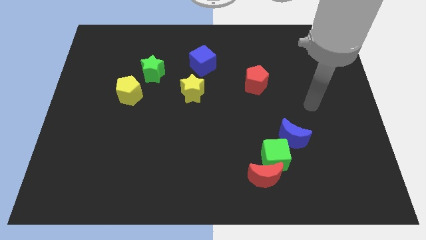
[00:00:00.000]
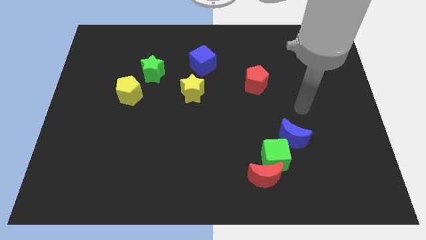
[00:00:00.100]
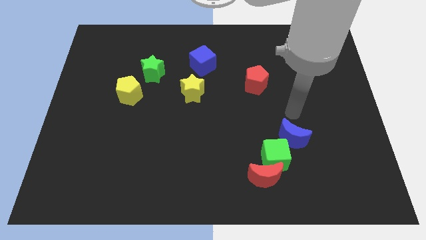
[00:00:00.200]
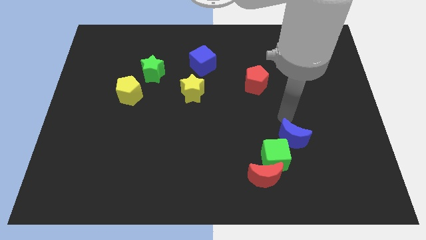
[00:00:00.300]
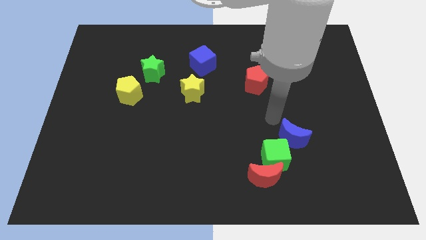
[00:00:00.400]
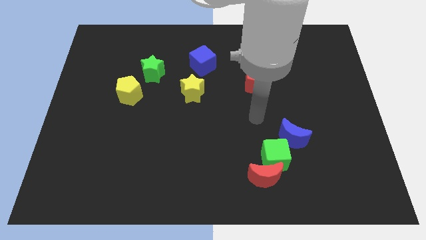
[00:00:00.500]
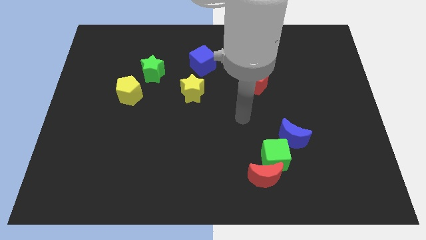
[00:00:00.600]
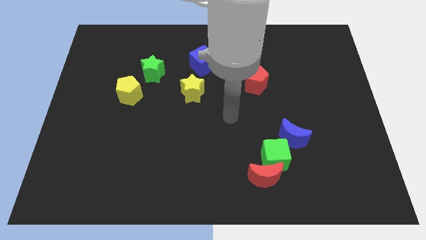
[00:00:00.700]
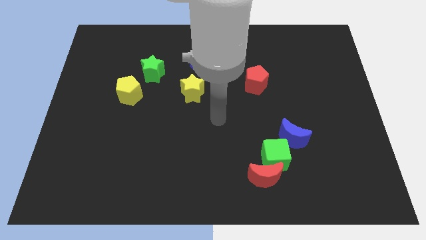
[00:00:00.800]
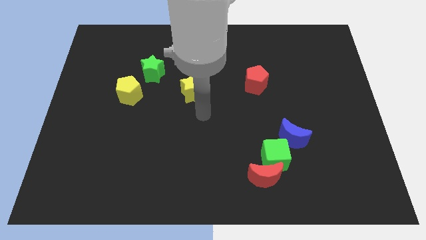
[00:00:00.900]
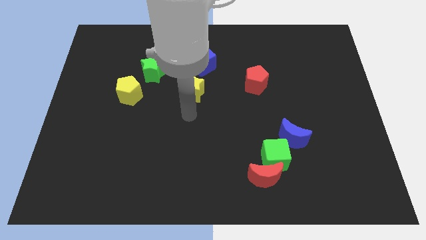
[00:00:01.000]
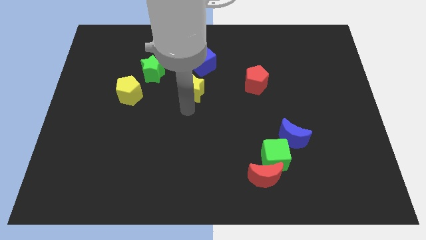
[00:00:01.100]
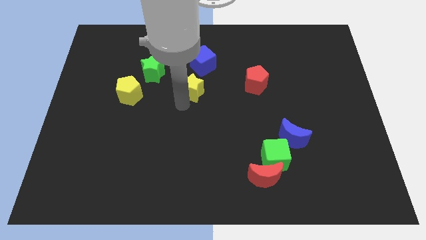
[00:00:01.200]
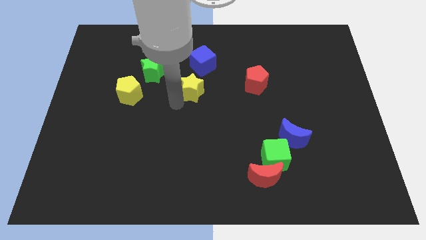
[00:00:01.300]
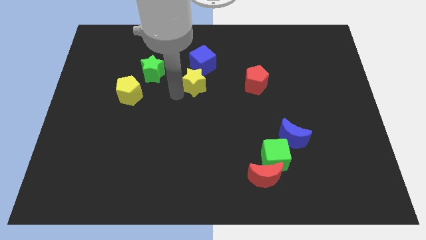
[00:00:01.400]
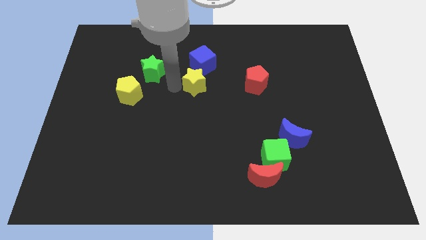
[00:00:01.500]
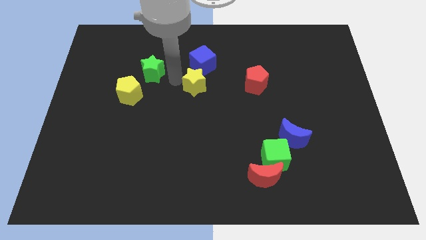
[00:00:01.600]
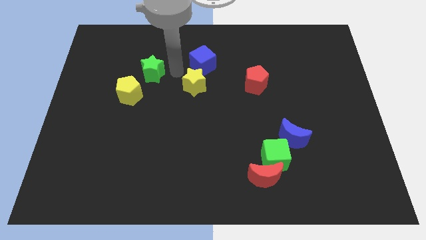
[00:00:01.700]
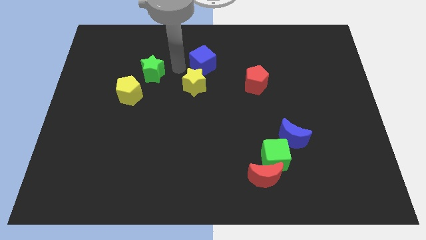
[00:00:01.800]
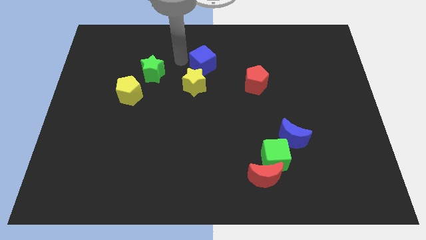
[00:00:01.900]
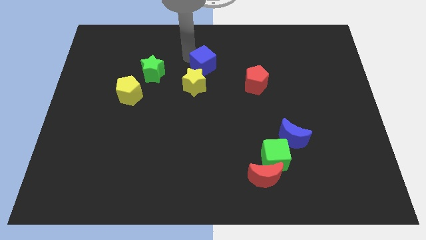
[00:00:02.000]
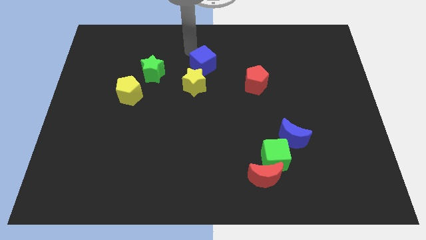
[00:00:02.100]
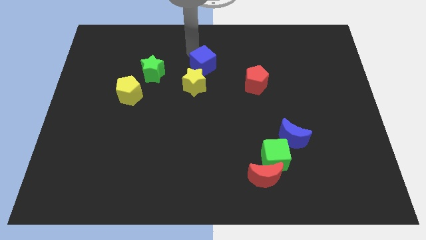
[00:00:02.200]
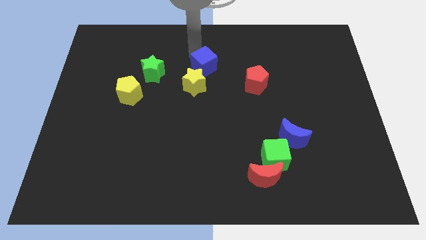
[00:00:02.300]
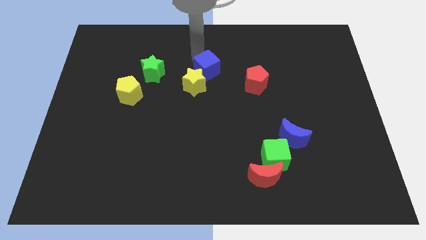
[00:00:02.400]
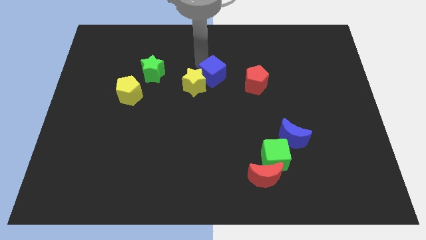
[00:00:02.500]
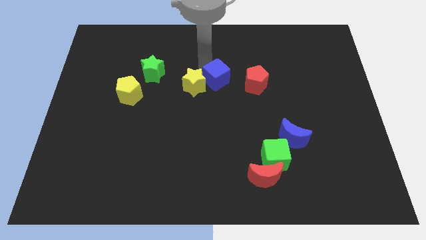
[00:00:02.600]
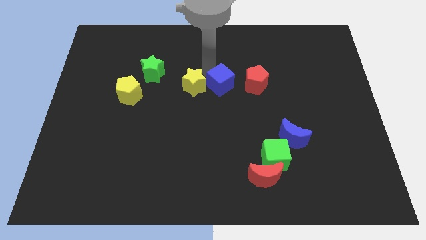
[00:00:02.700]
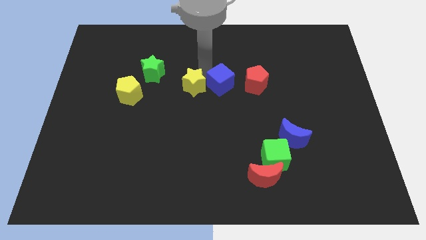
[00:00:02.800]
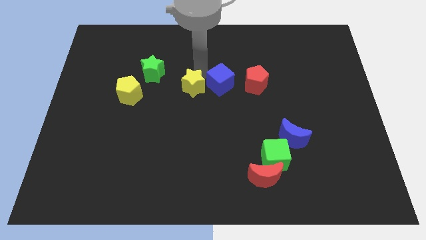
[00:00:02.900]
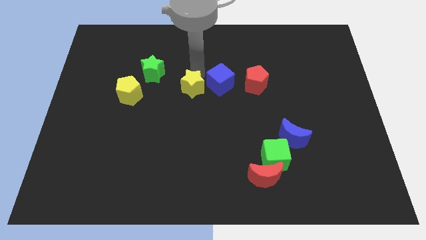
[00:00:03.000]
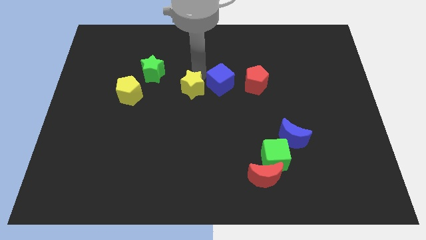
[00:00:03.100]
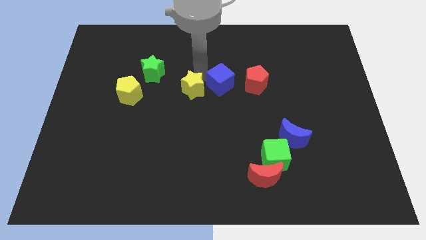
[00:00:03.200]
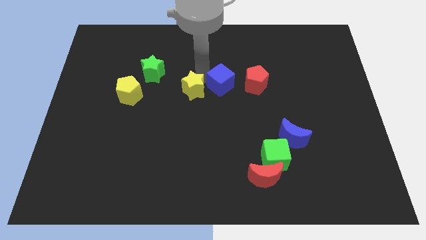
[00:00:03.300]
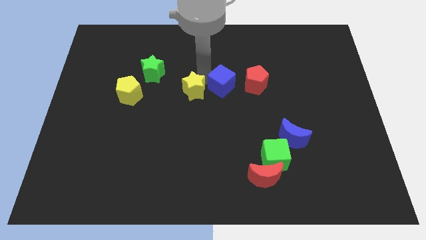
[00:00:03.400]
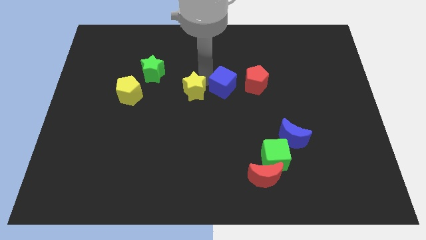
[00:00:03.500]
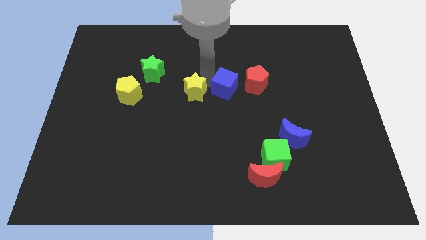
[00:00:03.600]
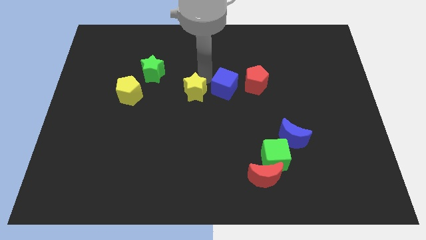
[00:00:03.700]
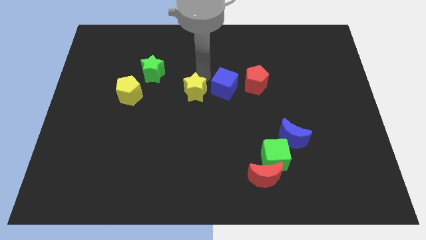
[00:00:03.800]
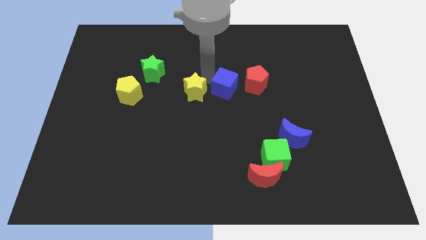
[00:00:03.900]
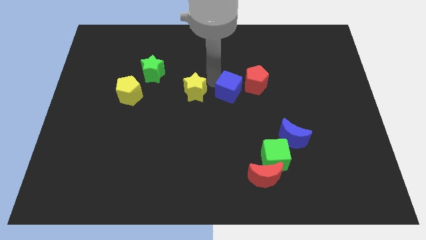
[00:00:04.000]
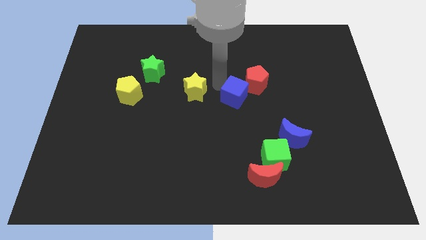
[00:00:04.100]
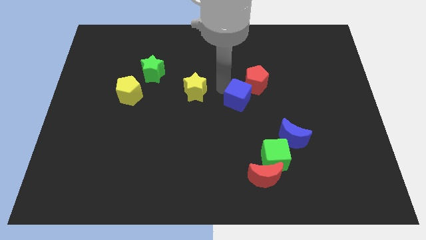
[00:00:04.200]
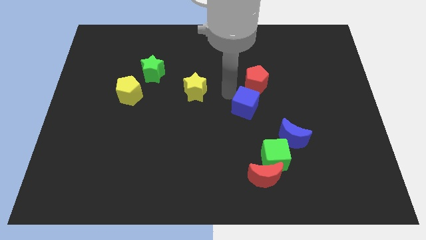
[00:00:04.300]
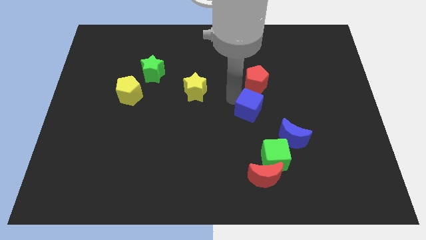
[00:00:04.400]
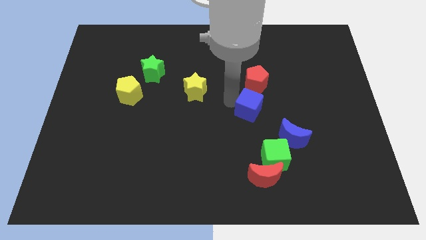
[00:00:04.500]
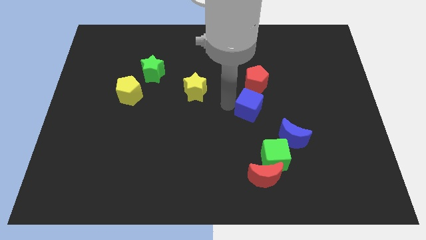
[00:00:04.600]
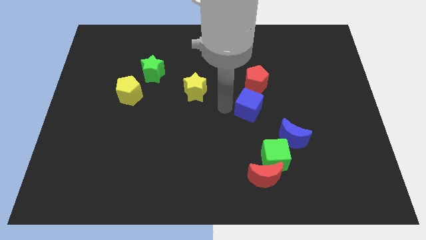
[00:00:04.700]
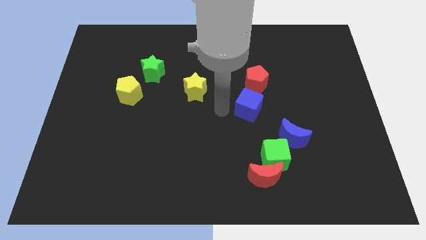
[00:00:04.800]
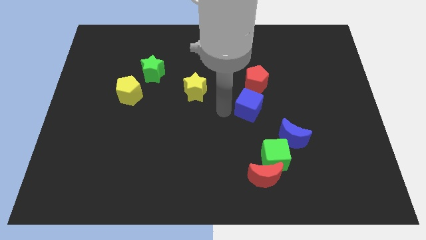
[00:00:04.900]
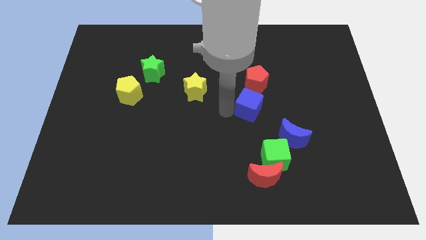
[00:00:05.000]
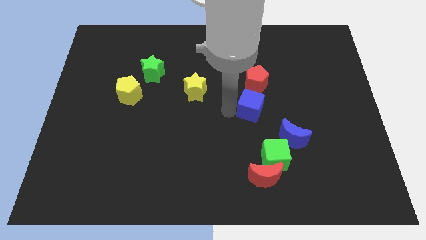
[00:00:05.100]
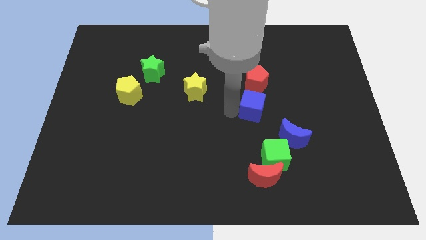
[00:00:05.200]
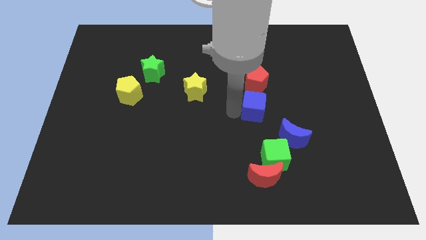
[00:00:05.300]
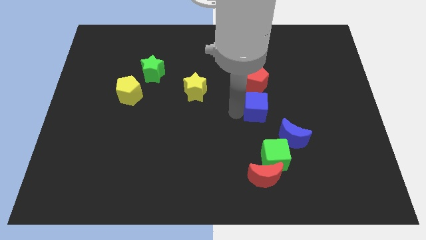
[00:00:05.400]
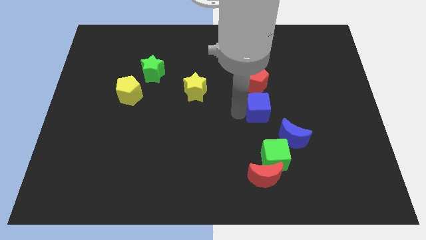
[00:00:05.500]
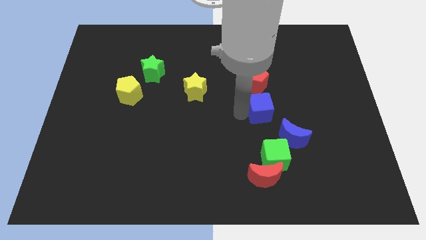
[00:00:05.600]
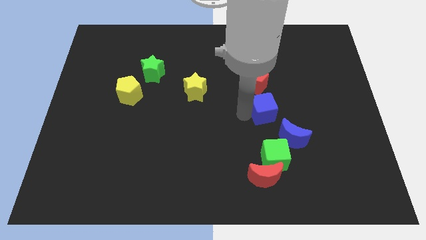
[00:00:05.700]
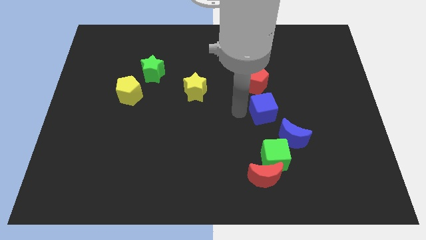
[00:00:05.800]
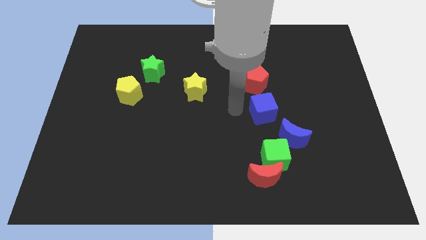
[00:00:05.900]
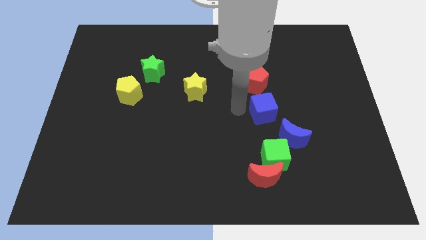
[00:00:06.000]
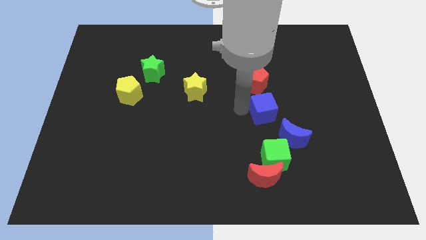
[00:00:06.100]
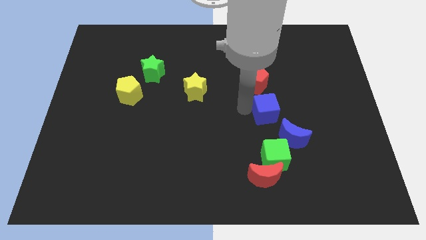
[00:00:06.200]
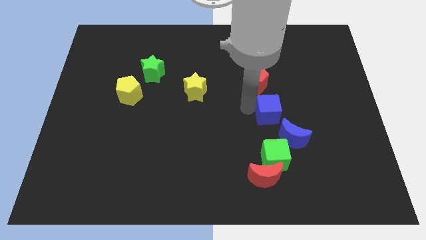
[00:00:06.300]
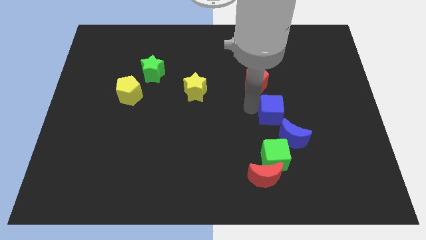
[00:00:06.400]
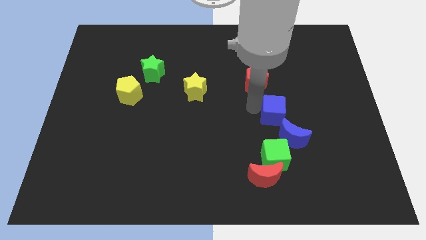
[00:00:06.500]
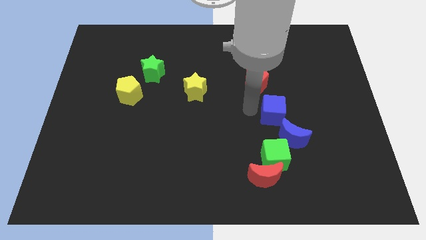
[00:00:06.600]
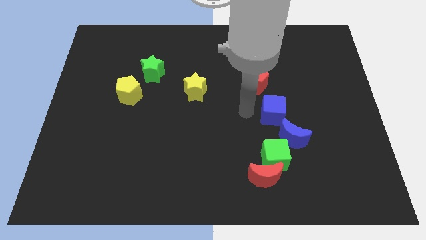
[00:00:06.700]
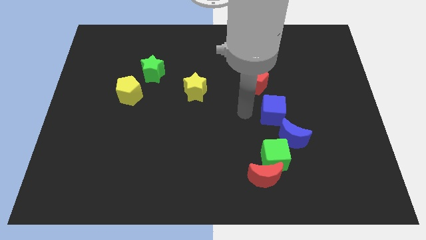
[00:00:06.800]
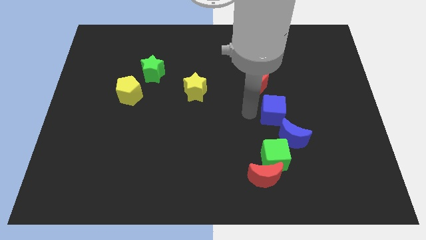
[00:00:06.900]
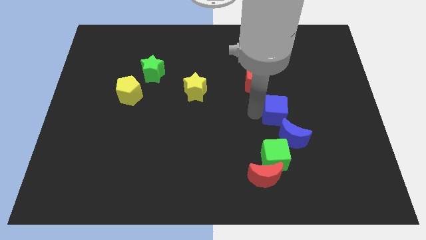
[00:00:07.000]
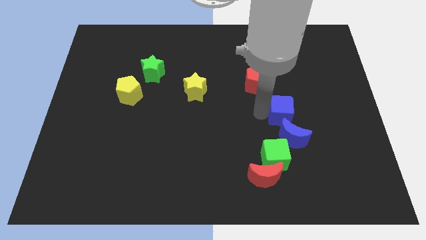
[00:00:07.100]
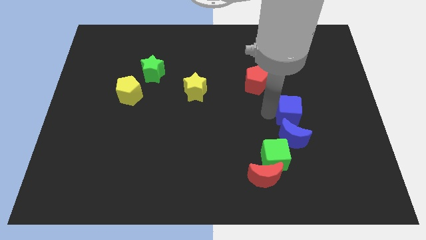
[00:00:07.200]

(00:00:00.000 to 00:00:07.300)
put the blue cube to the top right side of the blue moon
